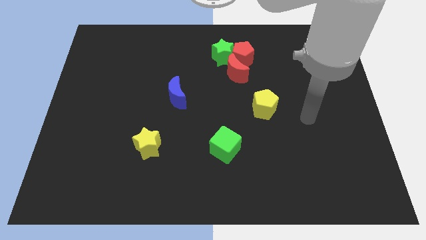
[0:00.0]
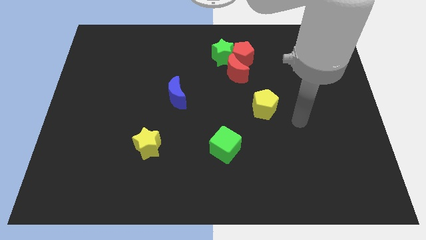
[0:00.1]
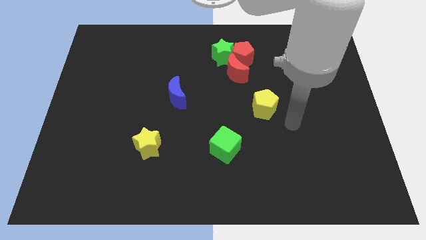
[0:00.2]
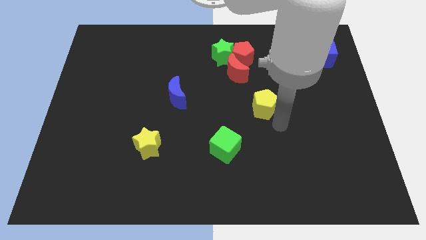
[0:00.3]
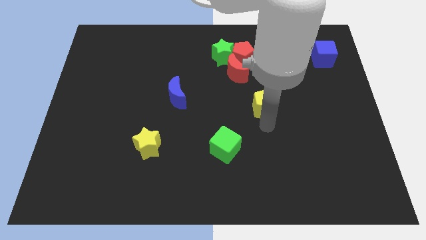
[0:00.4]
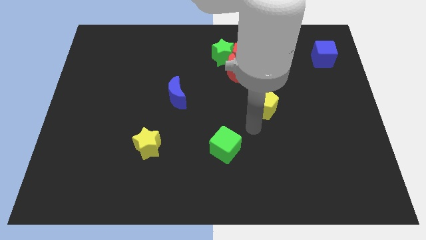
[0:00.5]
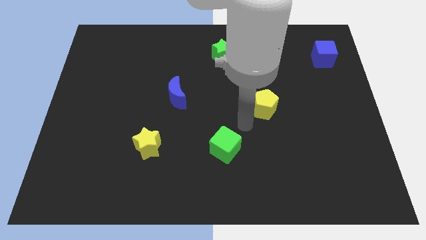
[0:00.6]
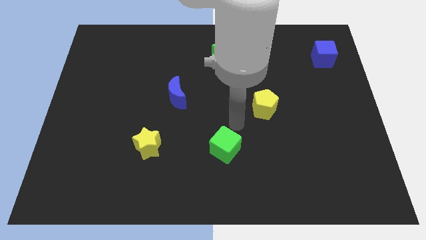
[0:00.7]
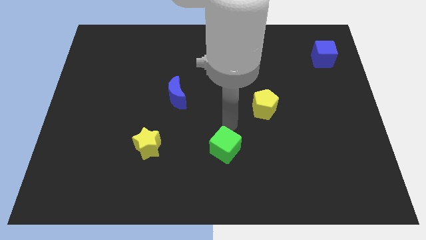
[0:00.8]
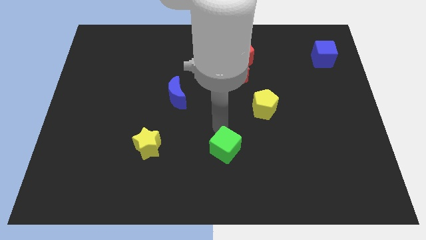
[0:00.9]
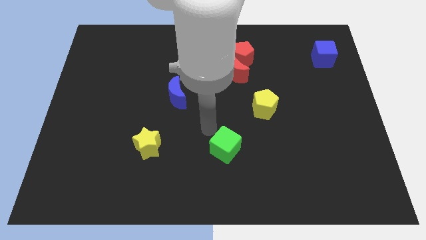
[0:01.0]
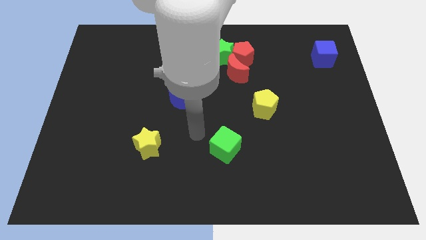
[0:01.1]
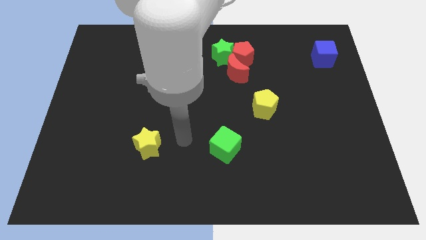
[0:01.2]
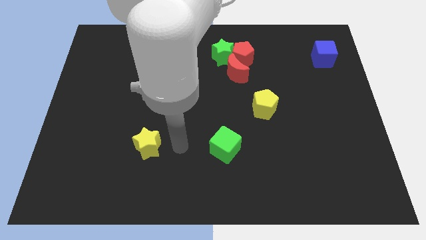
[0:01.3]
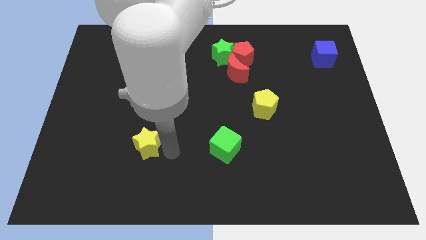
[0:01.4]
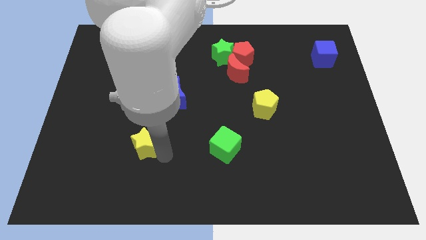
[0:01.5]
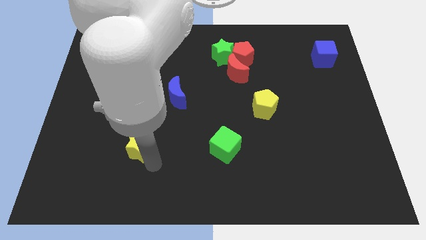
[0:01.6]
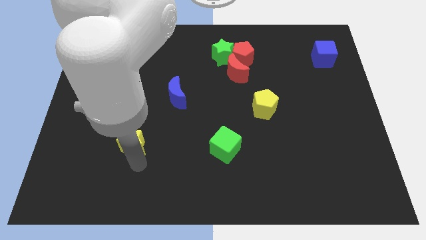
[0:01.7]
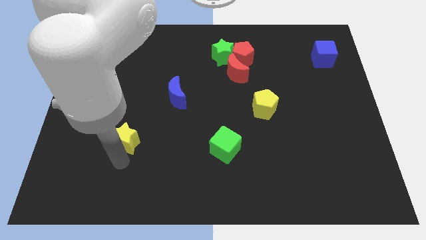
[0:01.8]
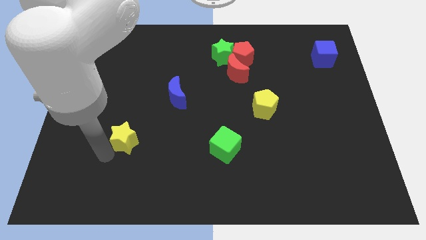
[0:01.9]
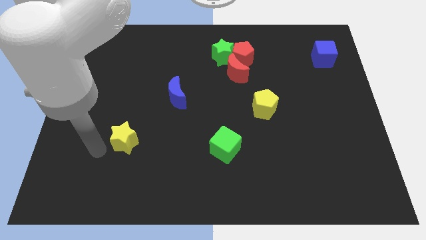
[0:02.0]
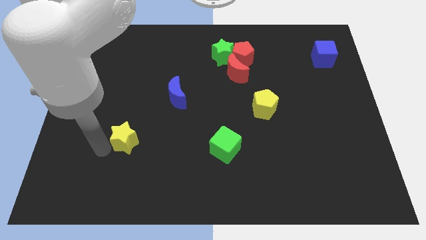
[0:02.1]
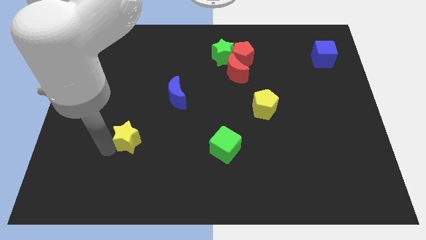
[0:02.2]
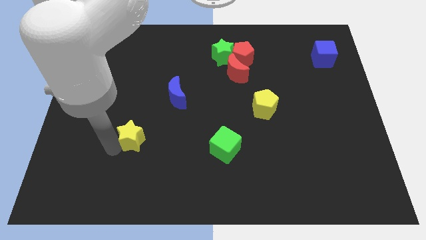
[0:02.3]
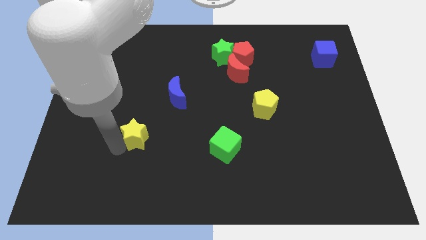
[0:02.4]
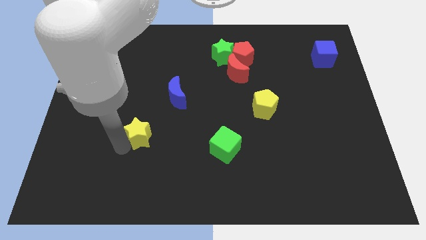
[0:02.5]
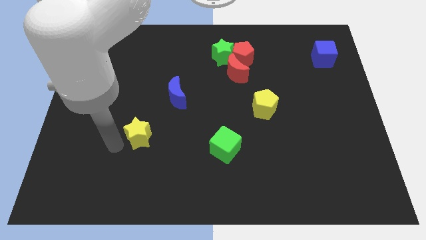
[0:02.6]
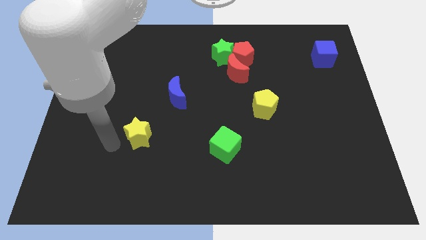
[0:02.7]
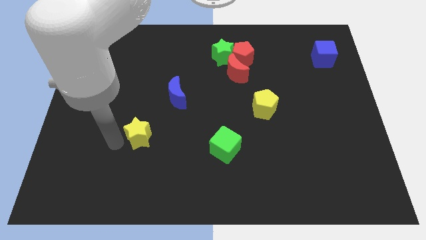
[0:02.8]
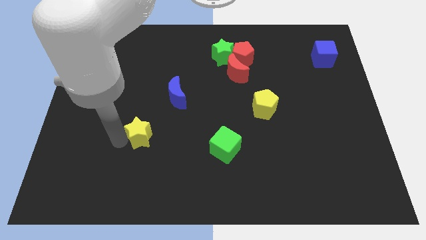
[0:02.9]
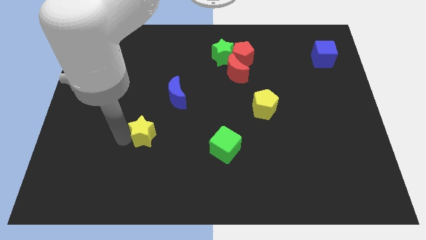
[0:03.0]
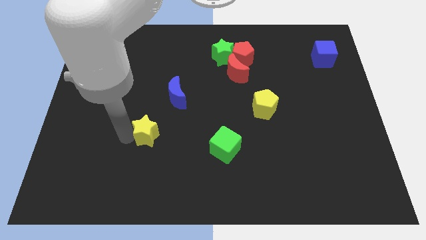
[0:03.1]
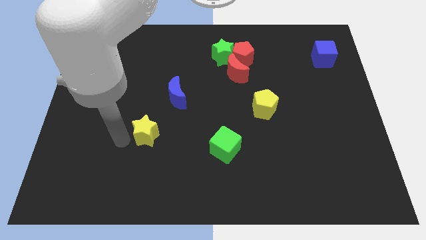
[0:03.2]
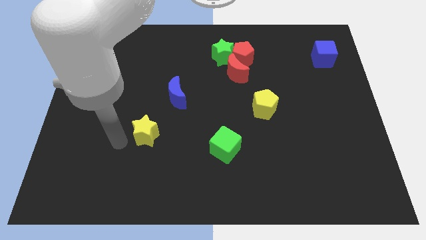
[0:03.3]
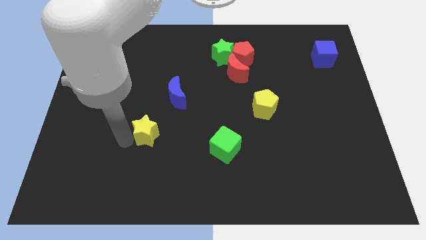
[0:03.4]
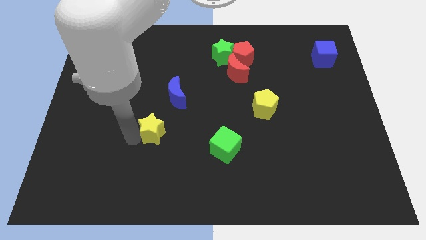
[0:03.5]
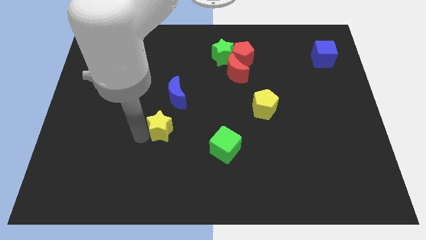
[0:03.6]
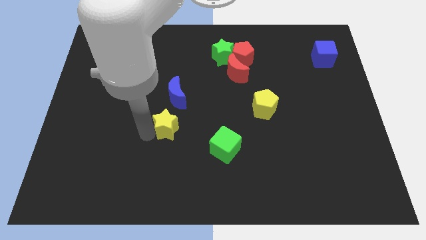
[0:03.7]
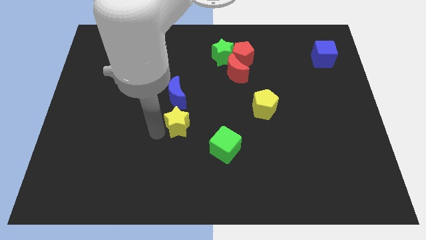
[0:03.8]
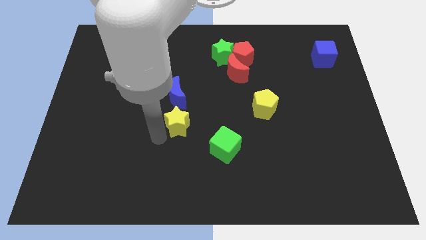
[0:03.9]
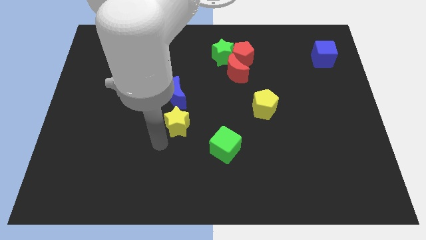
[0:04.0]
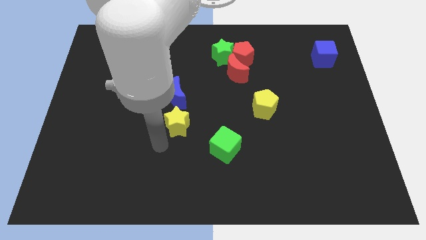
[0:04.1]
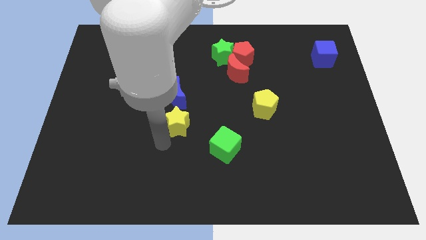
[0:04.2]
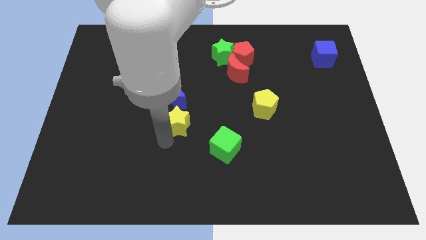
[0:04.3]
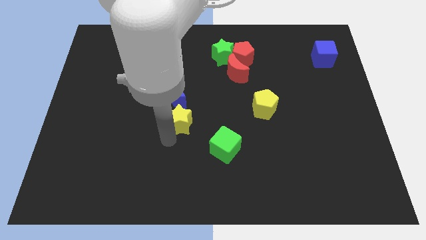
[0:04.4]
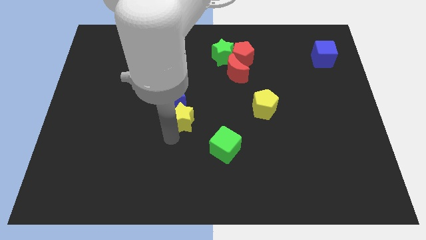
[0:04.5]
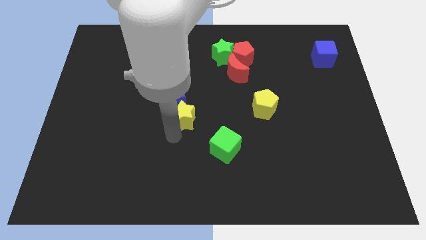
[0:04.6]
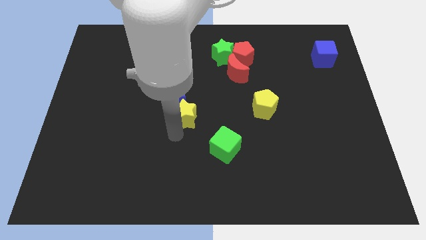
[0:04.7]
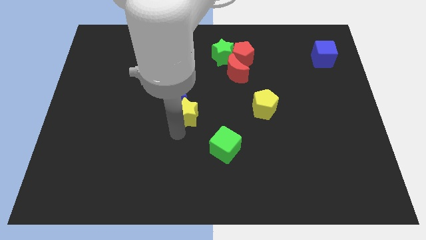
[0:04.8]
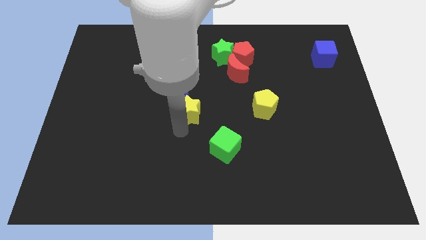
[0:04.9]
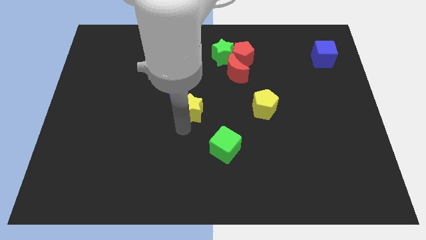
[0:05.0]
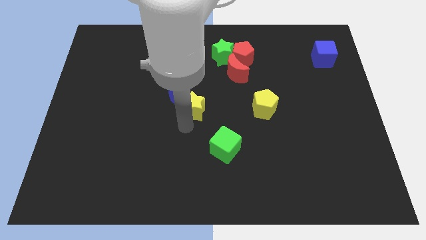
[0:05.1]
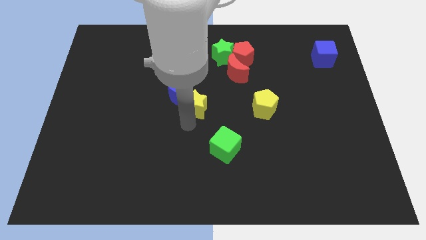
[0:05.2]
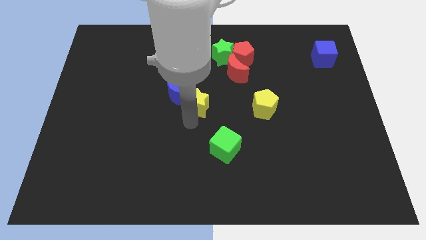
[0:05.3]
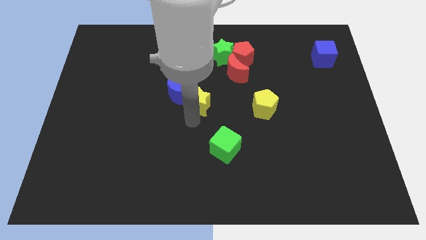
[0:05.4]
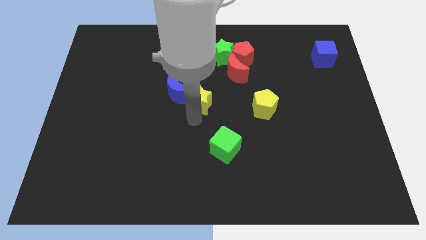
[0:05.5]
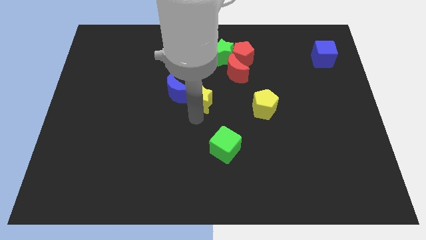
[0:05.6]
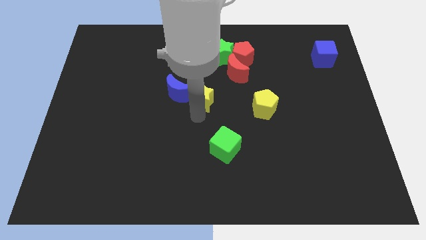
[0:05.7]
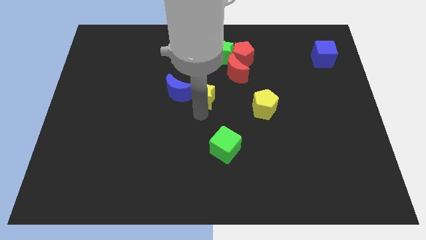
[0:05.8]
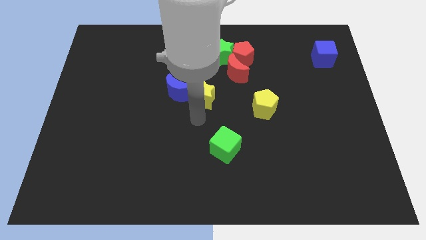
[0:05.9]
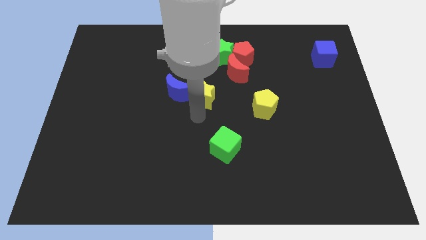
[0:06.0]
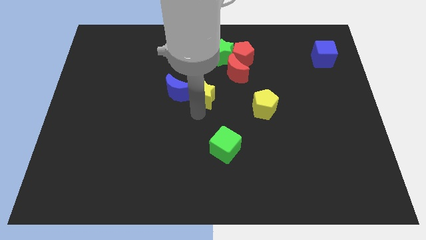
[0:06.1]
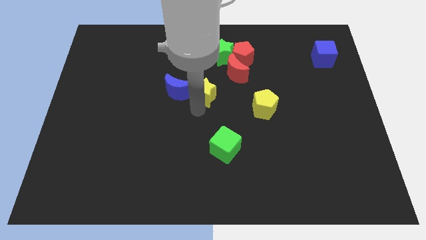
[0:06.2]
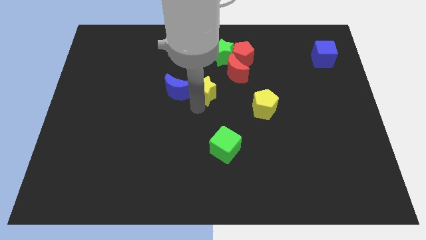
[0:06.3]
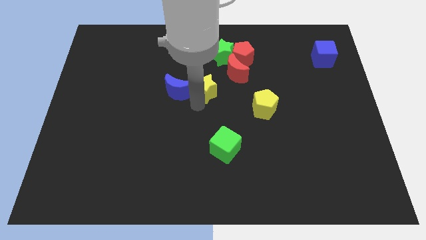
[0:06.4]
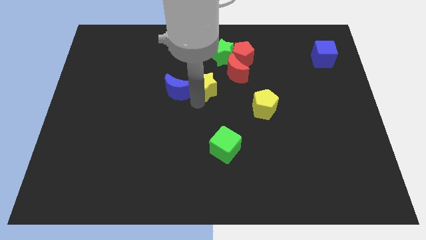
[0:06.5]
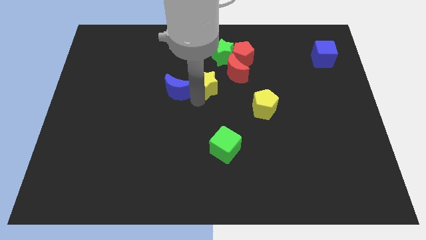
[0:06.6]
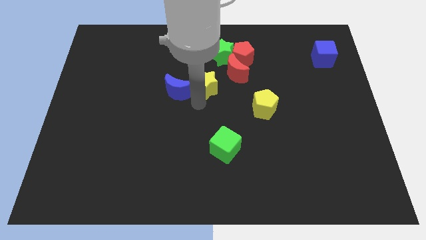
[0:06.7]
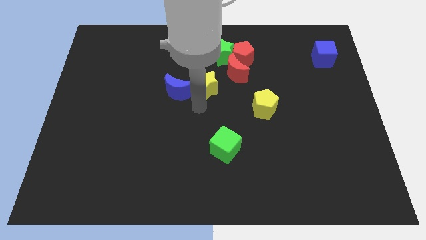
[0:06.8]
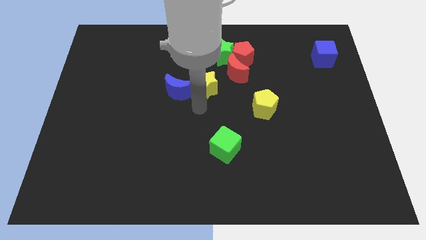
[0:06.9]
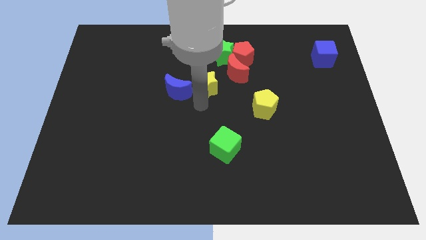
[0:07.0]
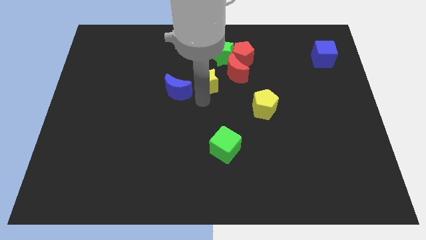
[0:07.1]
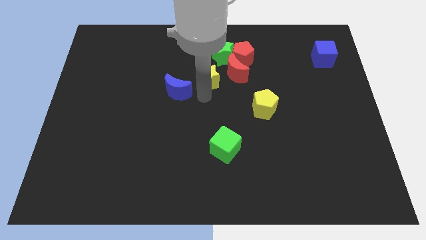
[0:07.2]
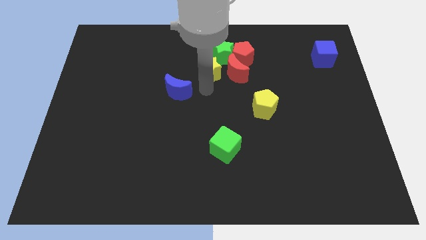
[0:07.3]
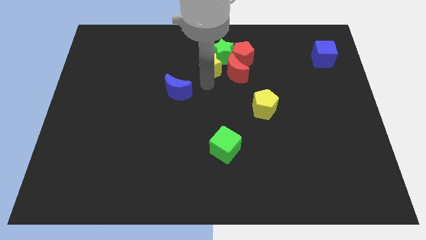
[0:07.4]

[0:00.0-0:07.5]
move the yellow star close to the green star
